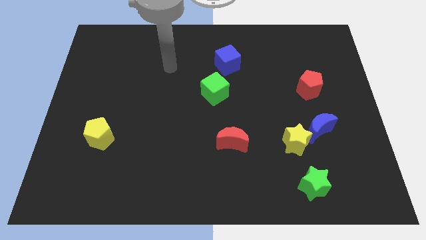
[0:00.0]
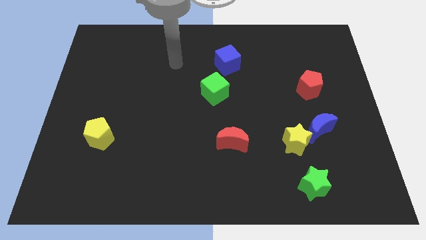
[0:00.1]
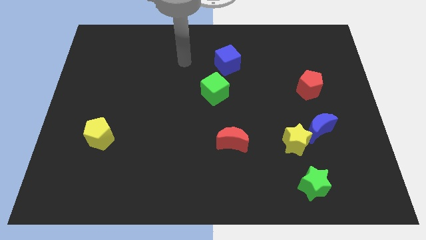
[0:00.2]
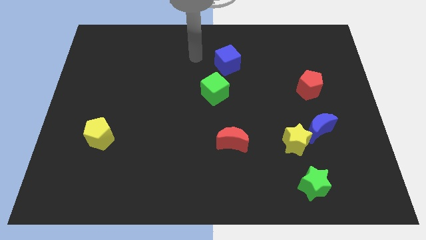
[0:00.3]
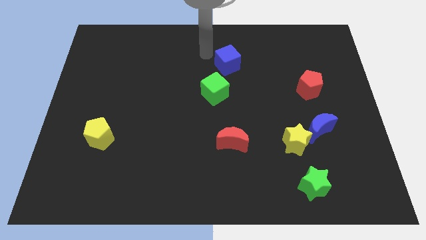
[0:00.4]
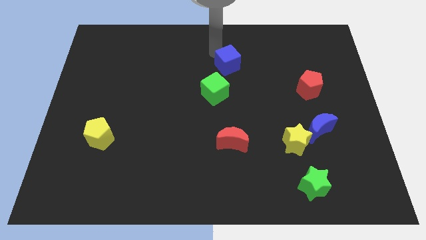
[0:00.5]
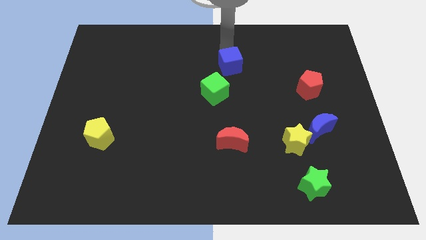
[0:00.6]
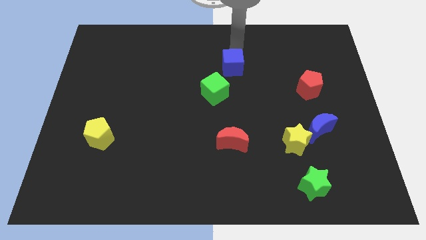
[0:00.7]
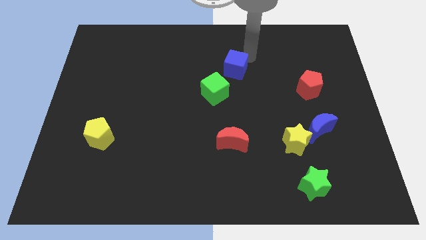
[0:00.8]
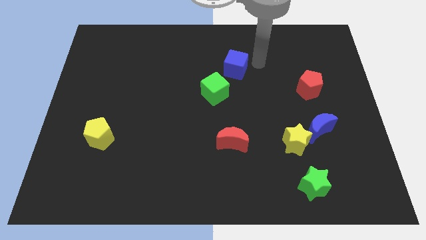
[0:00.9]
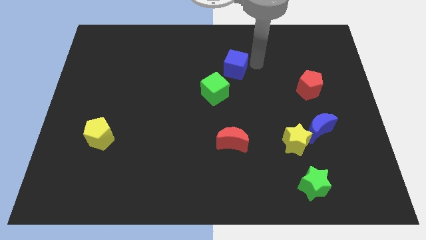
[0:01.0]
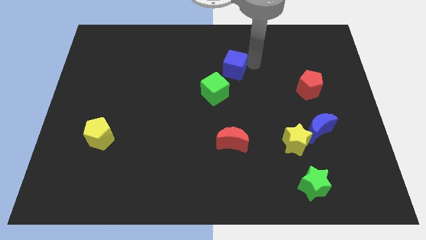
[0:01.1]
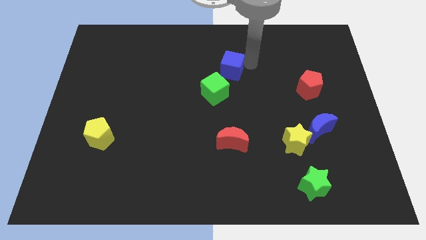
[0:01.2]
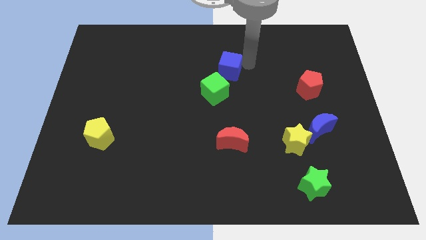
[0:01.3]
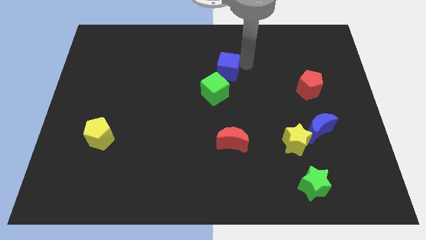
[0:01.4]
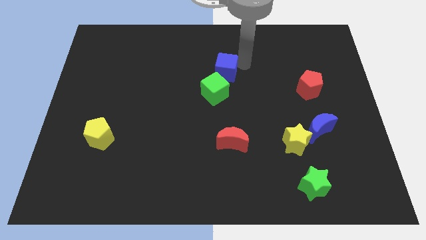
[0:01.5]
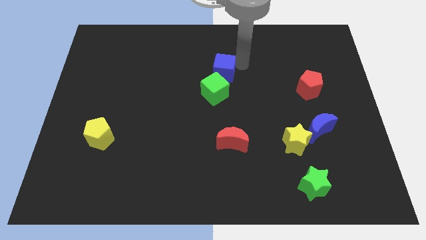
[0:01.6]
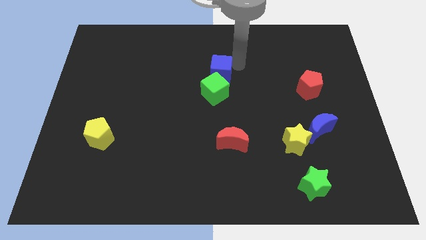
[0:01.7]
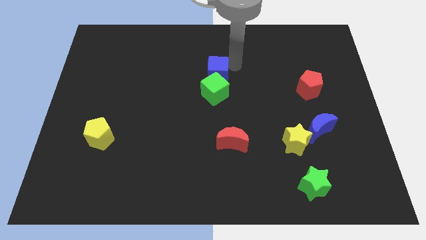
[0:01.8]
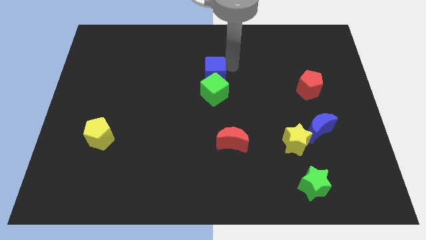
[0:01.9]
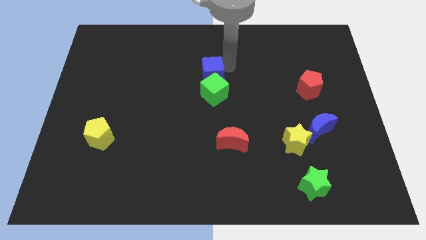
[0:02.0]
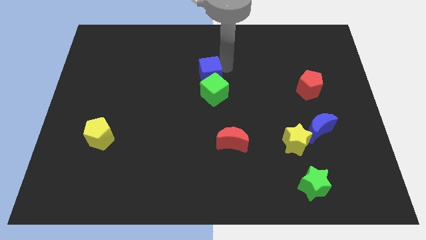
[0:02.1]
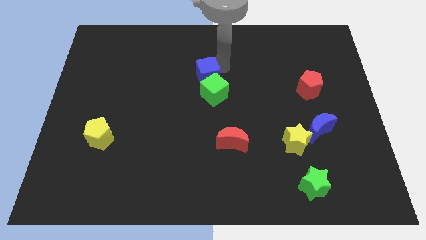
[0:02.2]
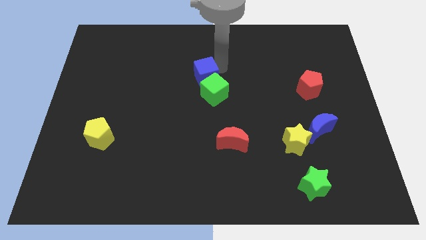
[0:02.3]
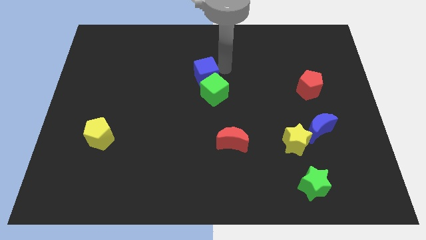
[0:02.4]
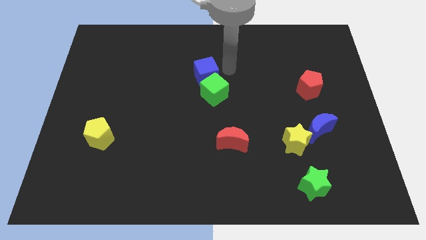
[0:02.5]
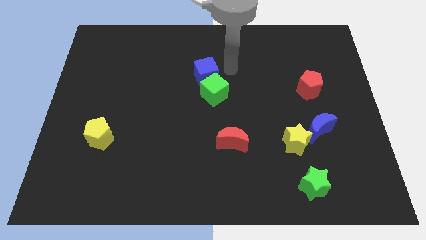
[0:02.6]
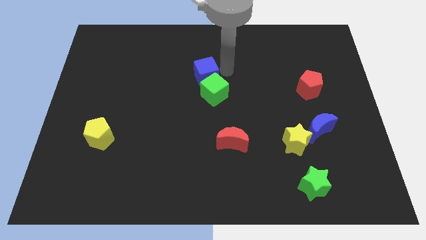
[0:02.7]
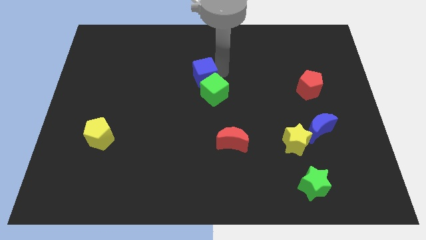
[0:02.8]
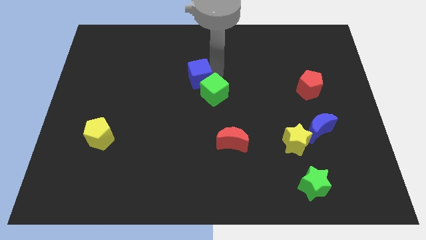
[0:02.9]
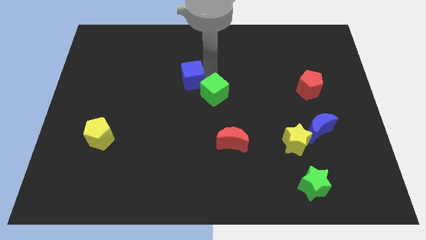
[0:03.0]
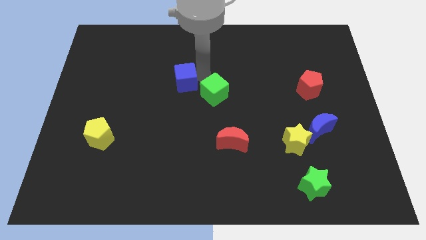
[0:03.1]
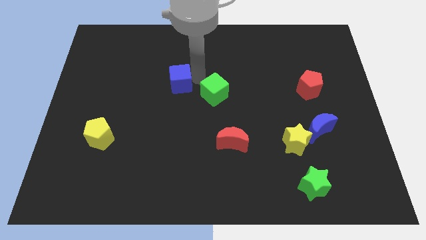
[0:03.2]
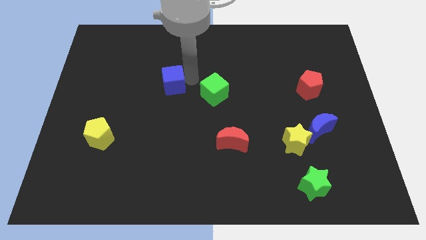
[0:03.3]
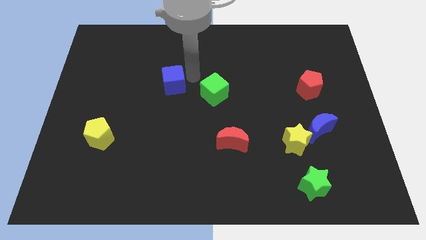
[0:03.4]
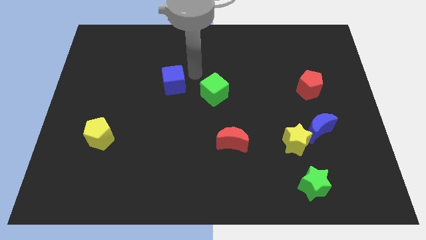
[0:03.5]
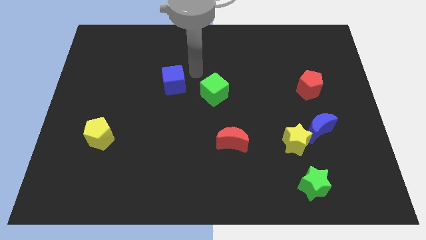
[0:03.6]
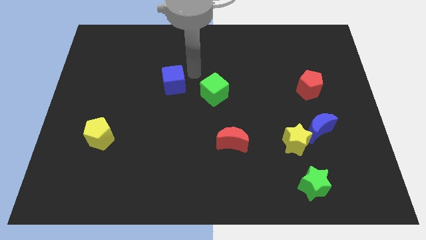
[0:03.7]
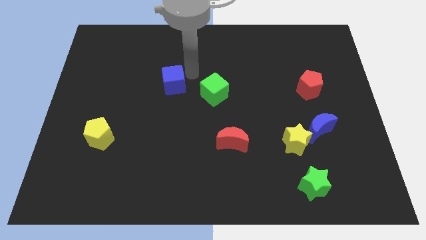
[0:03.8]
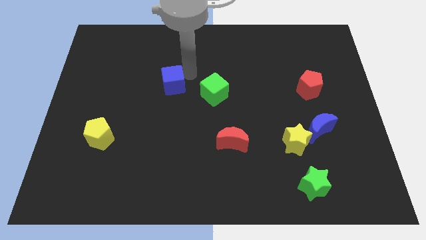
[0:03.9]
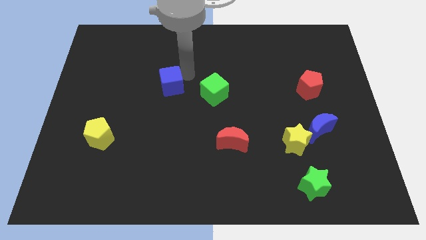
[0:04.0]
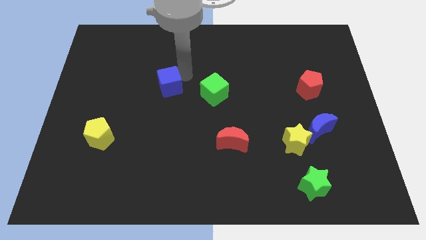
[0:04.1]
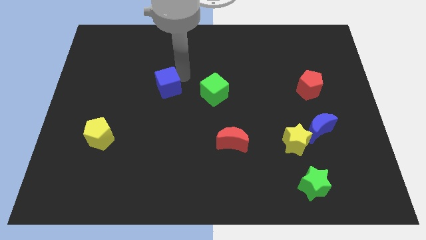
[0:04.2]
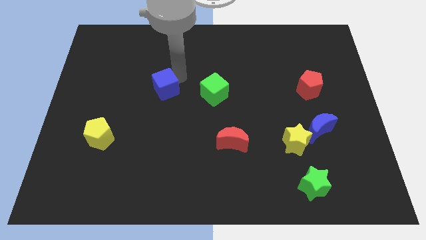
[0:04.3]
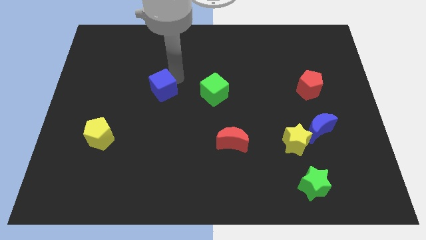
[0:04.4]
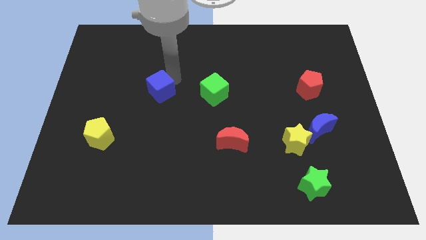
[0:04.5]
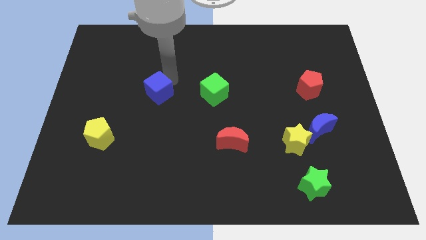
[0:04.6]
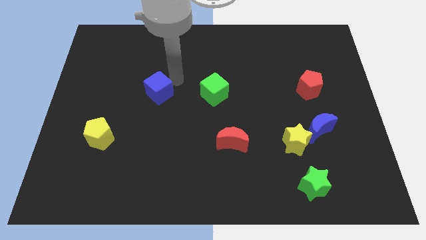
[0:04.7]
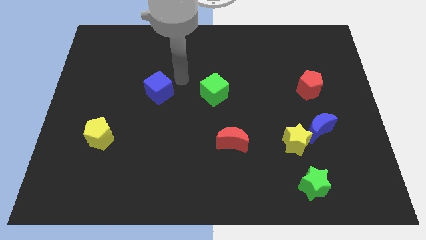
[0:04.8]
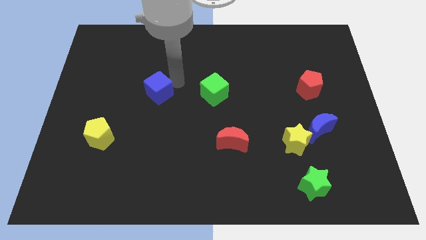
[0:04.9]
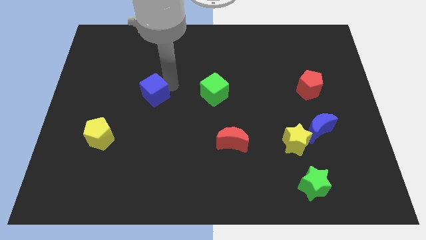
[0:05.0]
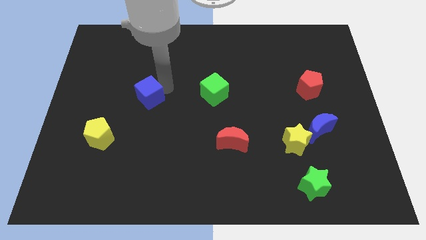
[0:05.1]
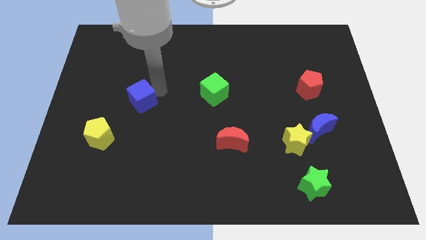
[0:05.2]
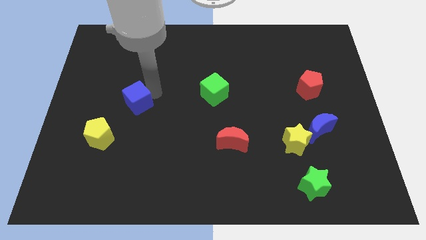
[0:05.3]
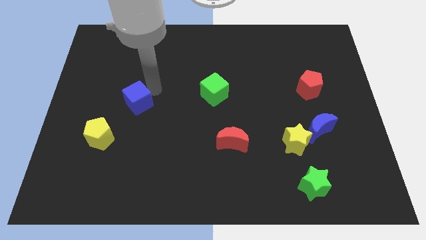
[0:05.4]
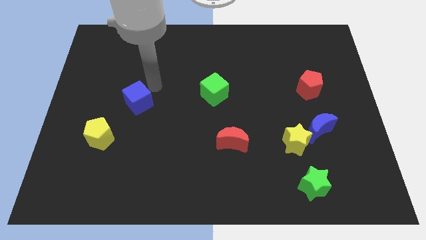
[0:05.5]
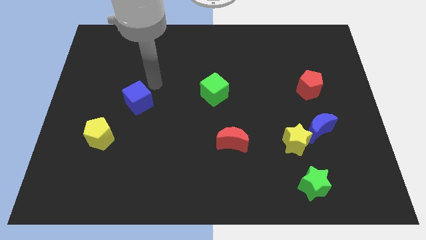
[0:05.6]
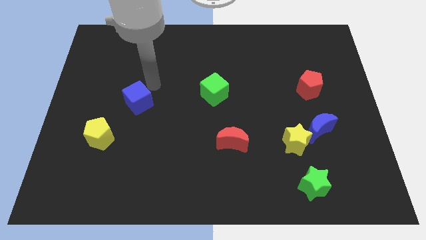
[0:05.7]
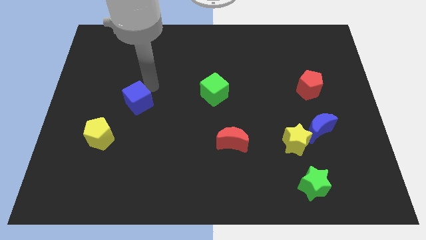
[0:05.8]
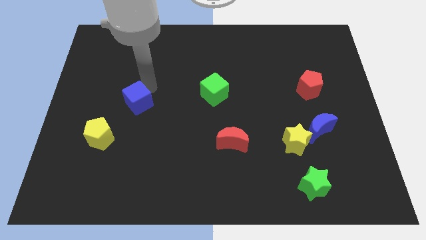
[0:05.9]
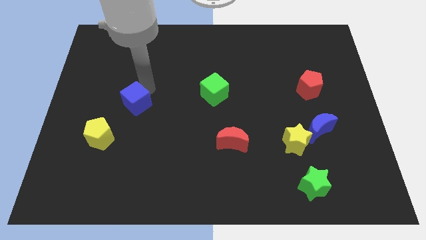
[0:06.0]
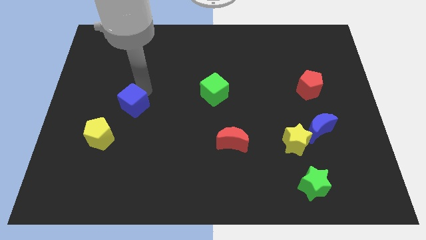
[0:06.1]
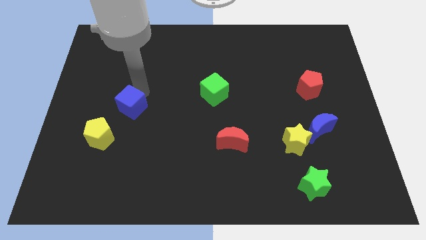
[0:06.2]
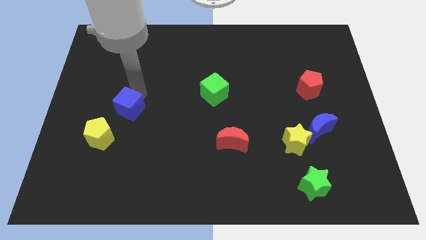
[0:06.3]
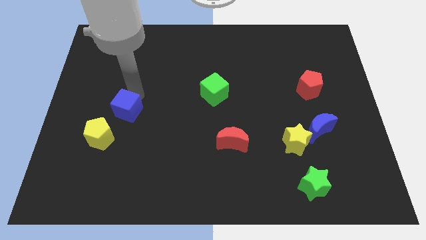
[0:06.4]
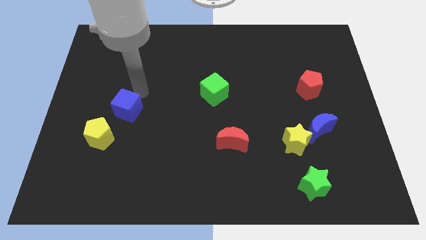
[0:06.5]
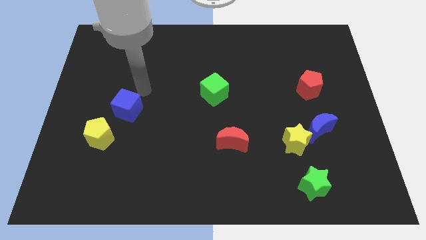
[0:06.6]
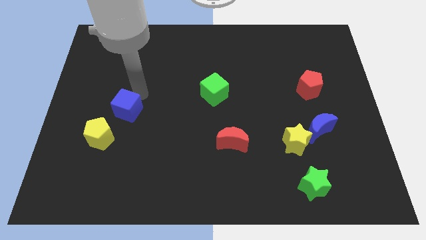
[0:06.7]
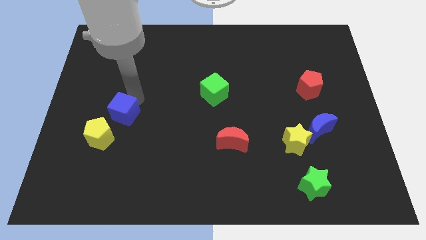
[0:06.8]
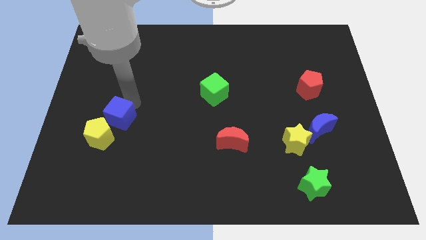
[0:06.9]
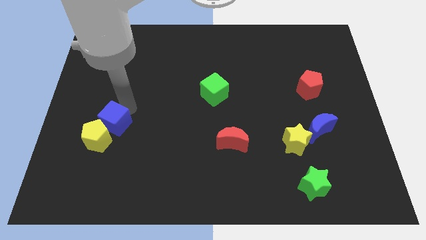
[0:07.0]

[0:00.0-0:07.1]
put the blue cube towards the yellow pentagon
